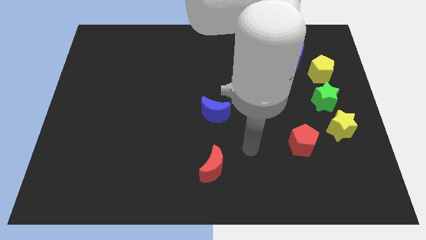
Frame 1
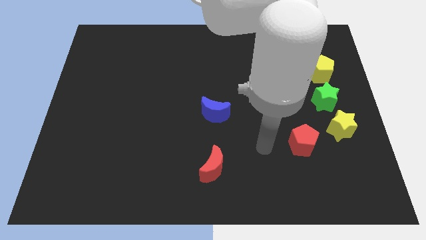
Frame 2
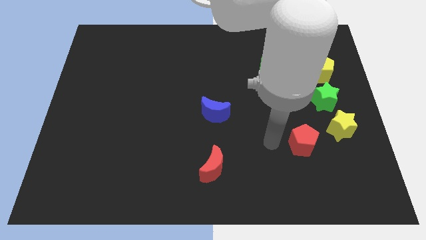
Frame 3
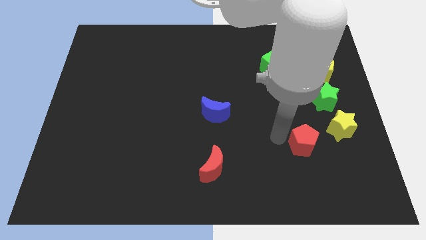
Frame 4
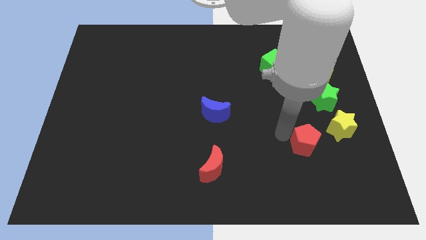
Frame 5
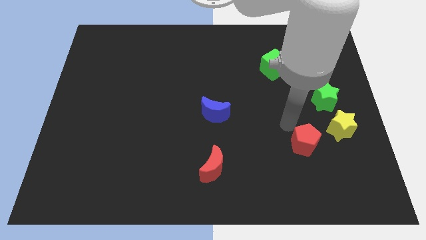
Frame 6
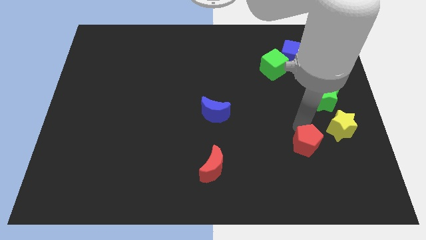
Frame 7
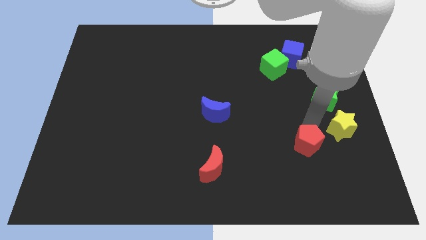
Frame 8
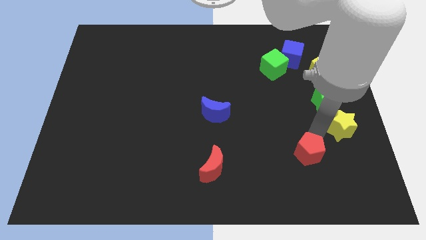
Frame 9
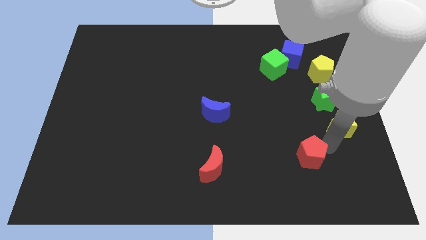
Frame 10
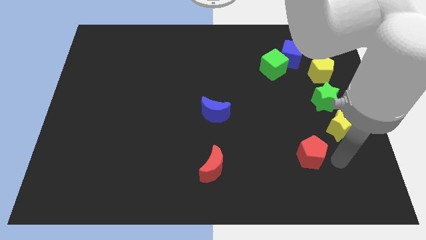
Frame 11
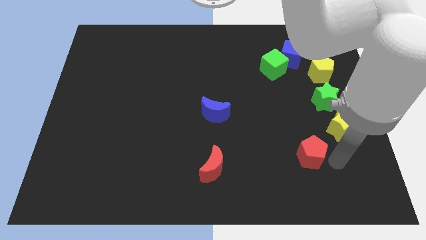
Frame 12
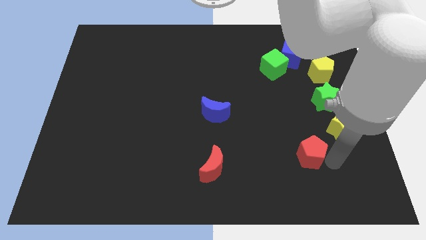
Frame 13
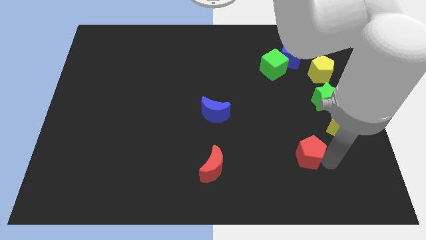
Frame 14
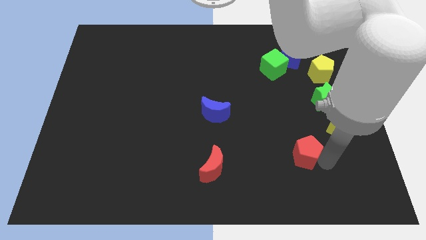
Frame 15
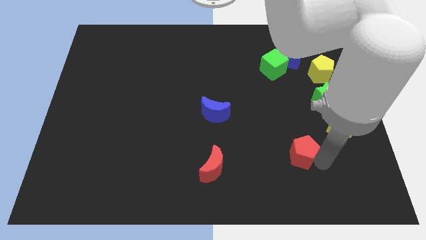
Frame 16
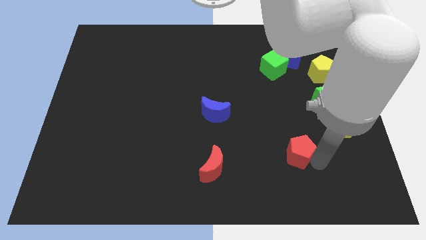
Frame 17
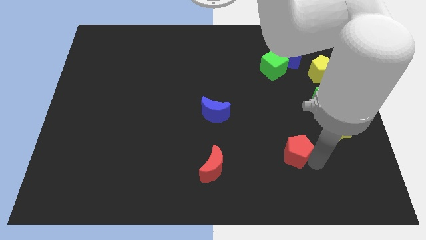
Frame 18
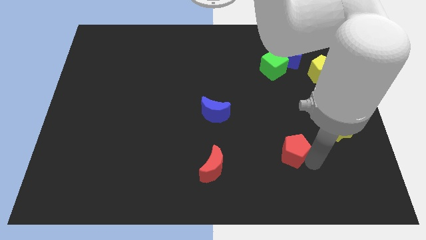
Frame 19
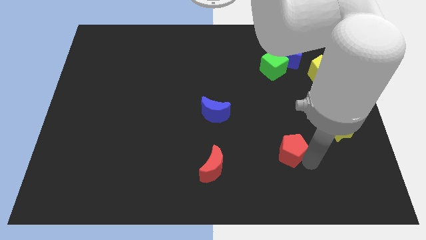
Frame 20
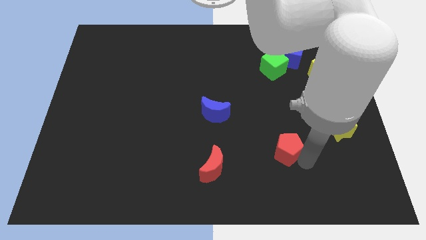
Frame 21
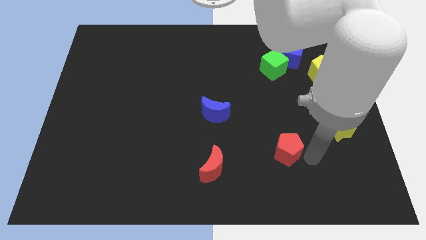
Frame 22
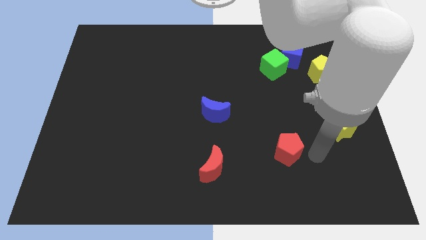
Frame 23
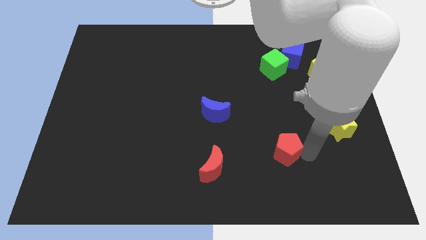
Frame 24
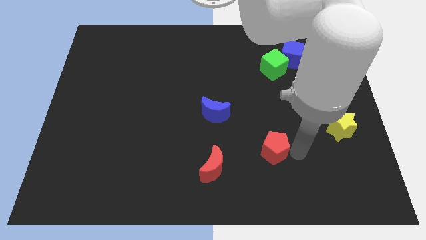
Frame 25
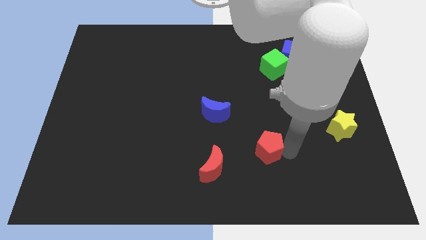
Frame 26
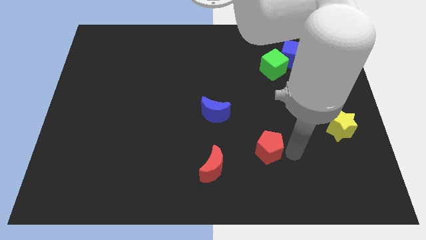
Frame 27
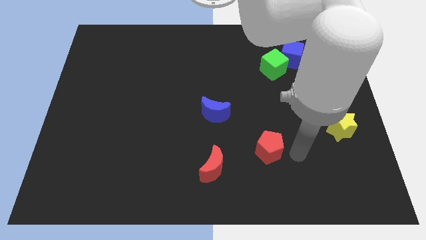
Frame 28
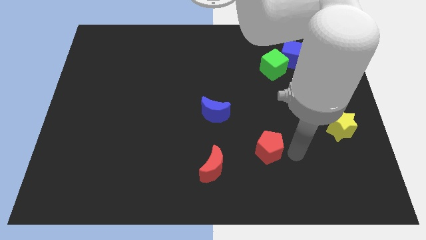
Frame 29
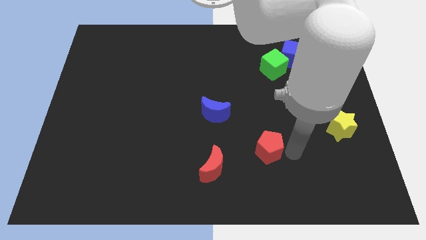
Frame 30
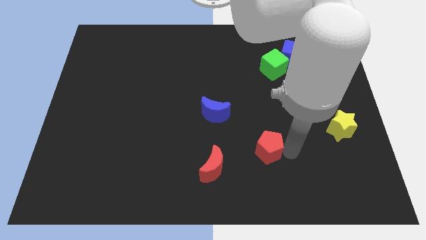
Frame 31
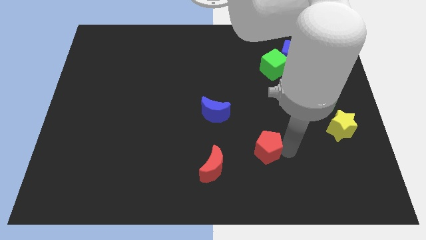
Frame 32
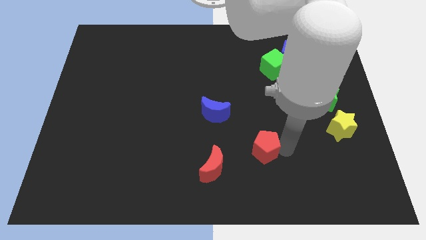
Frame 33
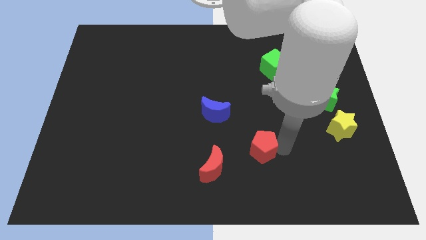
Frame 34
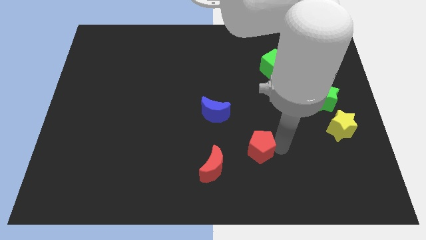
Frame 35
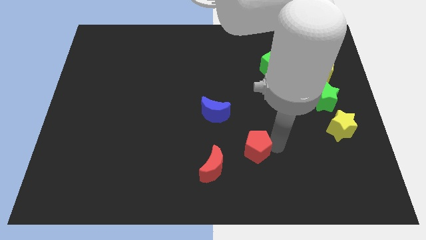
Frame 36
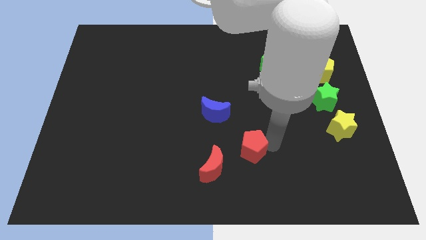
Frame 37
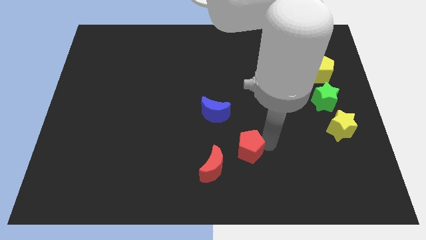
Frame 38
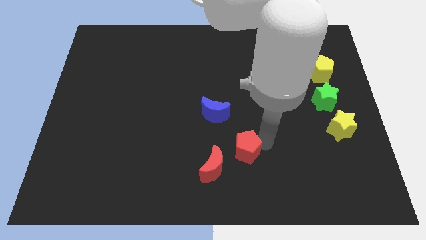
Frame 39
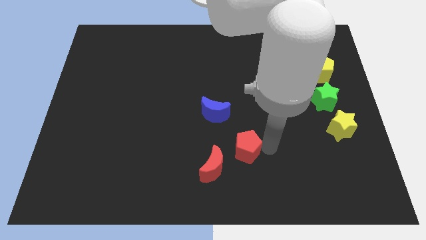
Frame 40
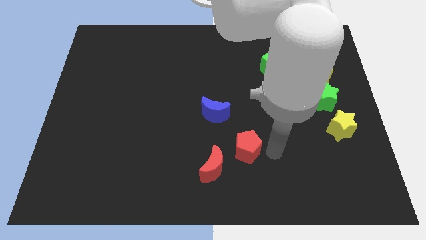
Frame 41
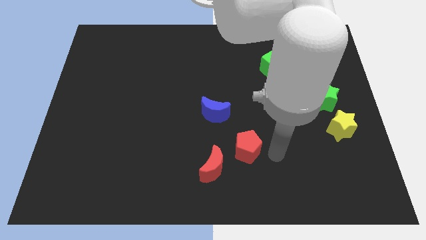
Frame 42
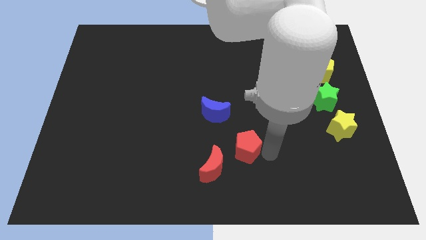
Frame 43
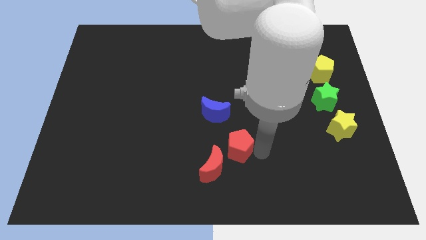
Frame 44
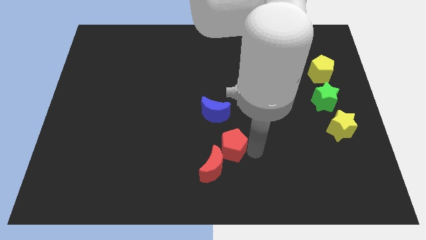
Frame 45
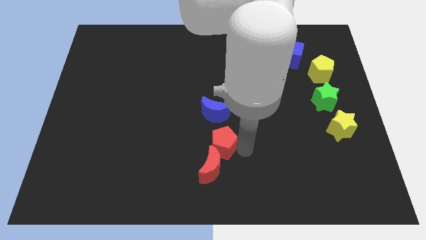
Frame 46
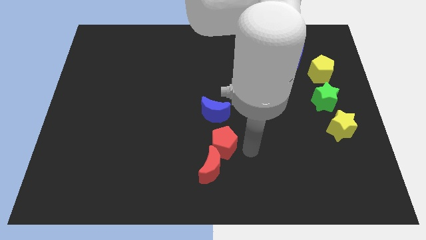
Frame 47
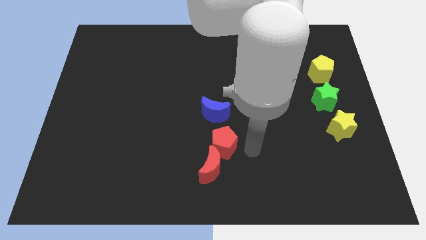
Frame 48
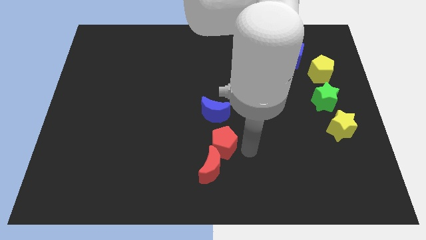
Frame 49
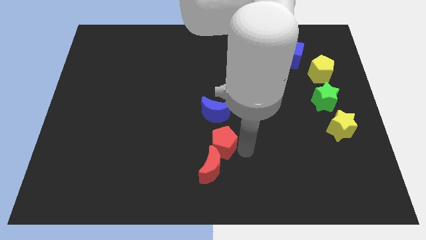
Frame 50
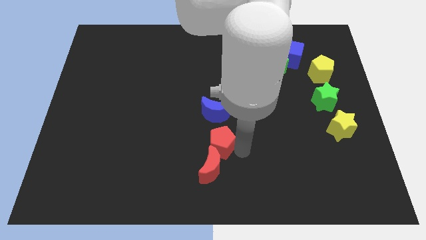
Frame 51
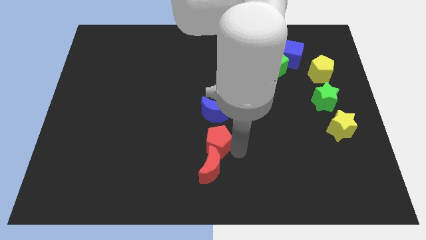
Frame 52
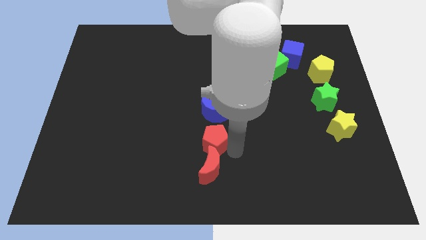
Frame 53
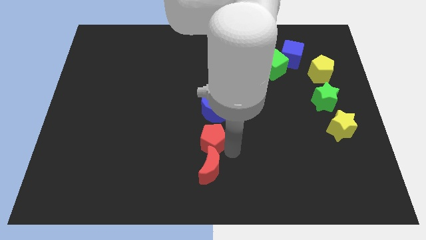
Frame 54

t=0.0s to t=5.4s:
slide the red pentagon left

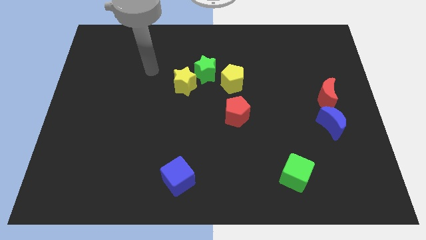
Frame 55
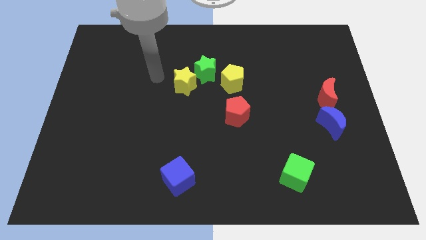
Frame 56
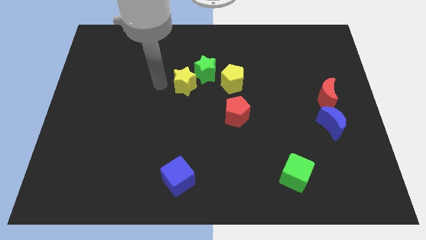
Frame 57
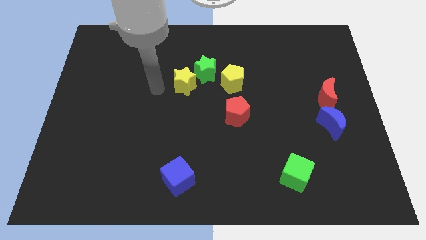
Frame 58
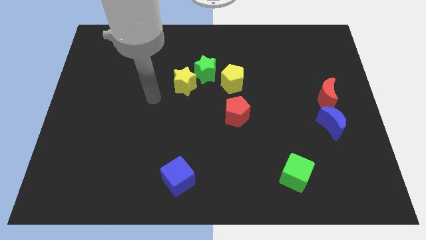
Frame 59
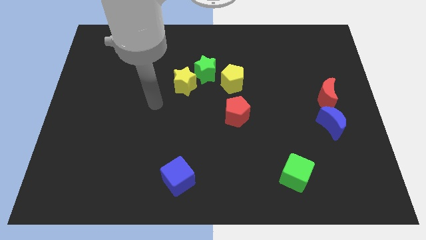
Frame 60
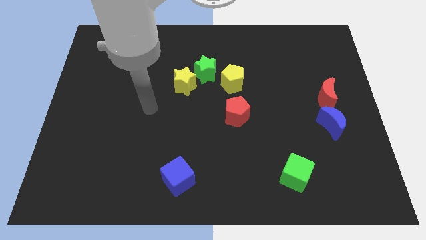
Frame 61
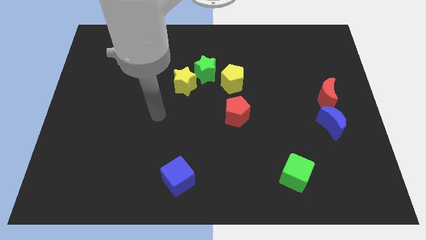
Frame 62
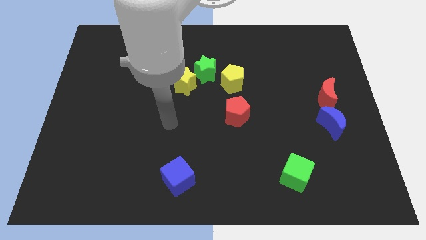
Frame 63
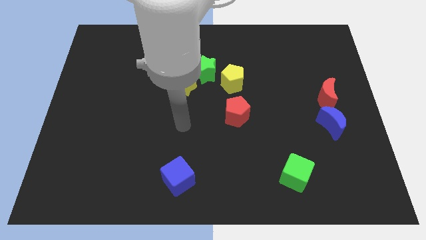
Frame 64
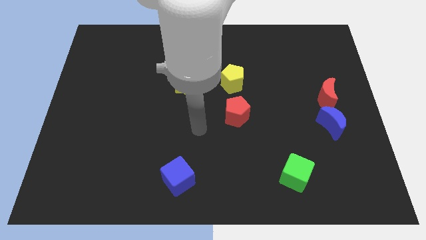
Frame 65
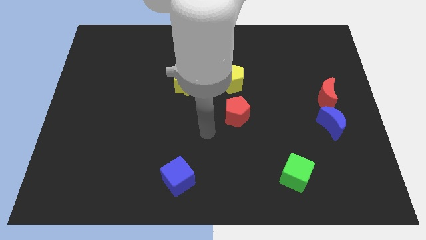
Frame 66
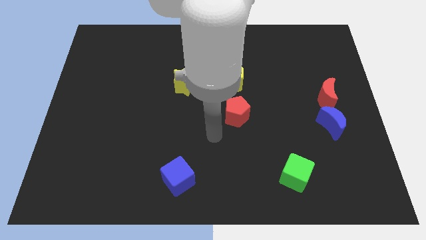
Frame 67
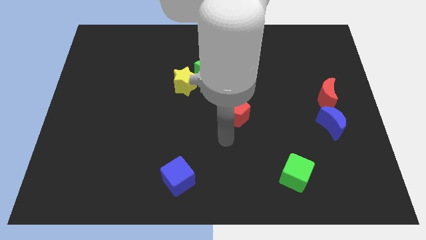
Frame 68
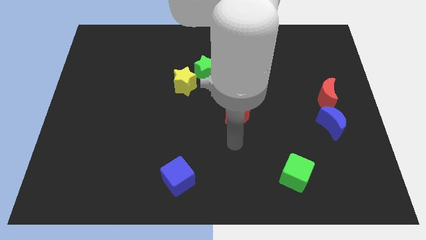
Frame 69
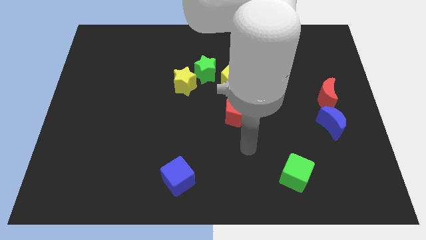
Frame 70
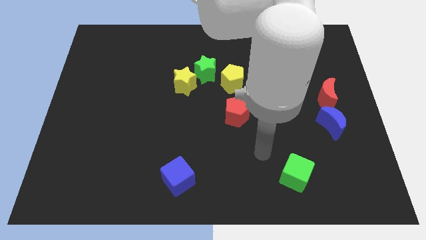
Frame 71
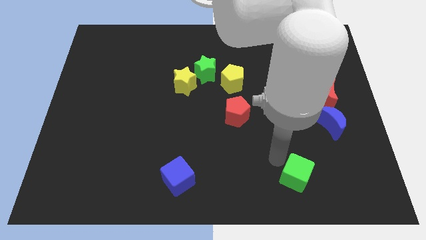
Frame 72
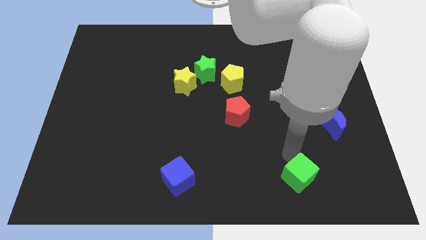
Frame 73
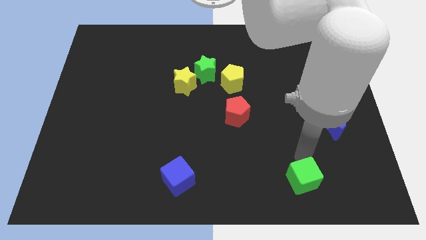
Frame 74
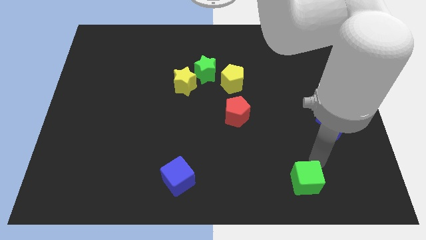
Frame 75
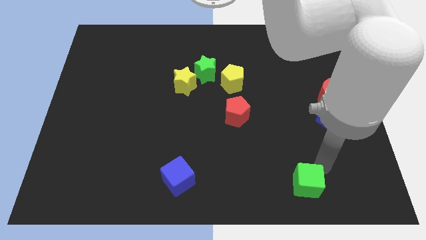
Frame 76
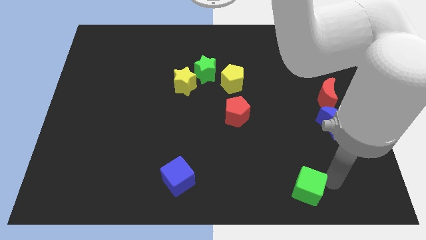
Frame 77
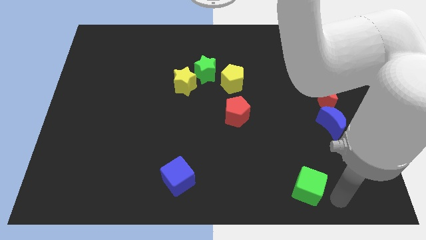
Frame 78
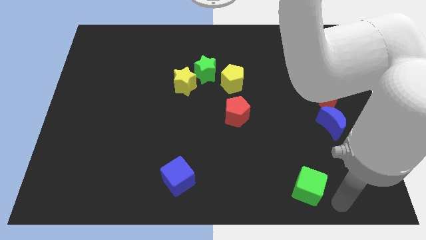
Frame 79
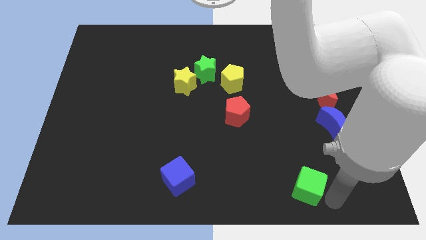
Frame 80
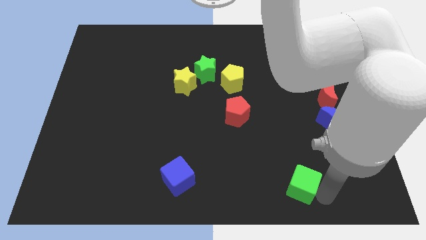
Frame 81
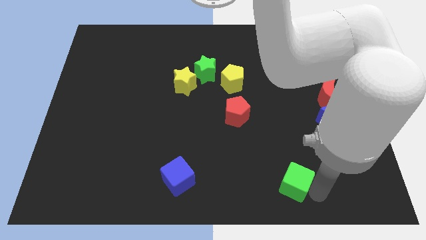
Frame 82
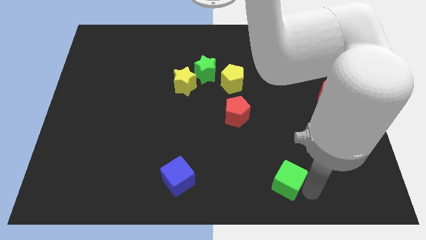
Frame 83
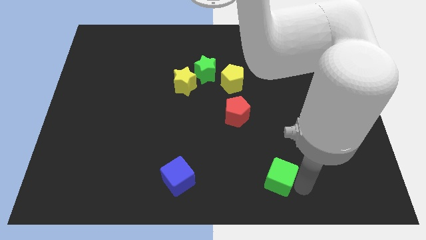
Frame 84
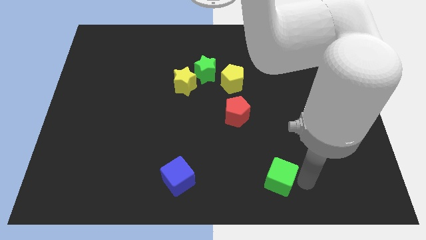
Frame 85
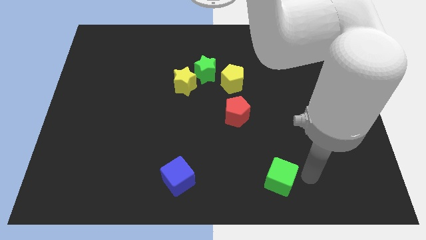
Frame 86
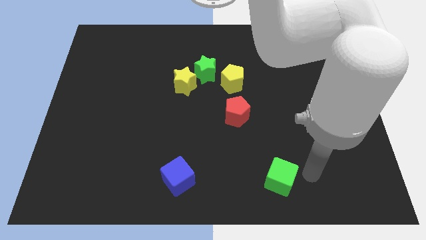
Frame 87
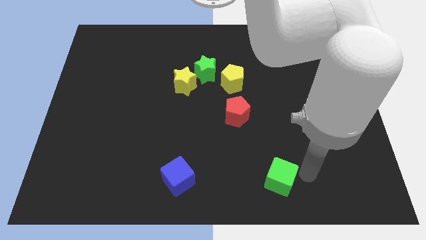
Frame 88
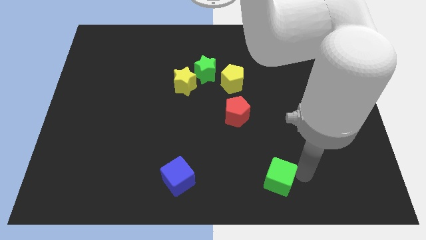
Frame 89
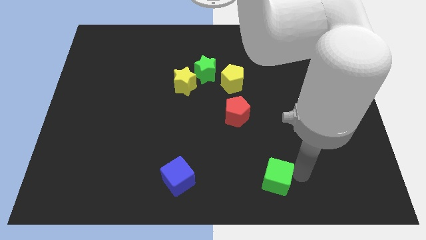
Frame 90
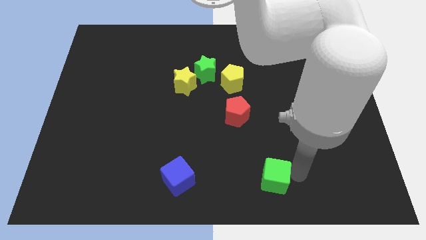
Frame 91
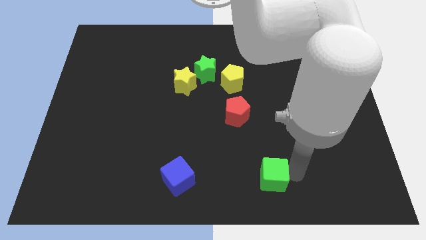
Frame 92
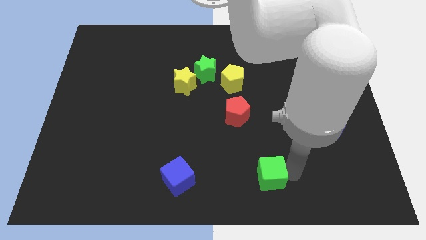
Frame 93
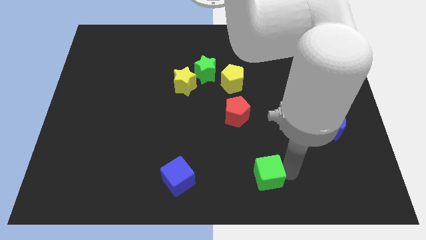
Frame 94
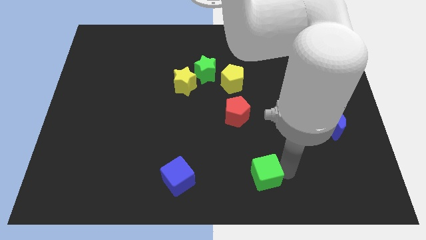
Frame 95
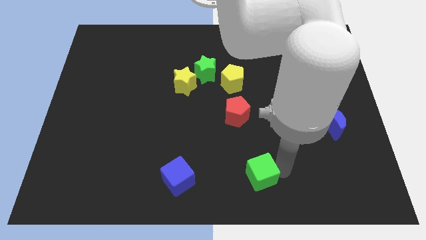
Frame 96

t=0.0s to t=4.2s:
push the green cube to the left a little bit
